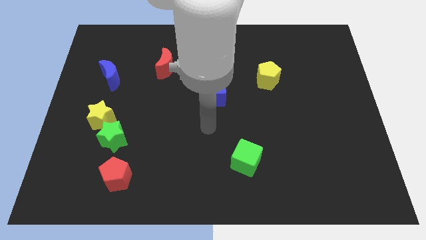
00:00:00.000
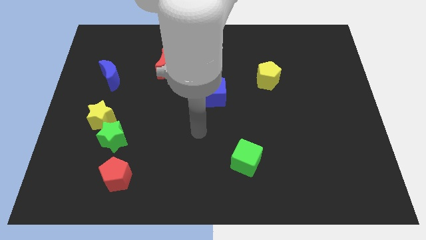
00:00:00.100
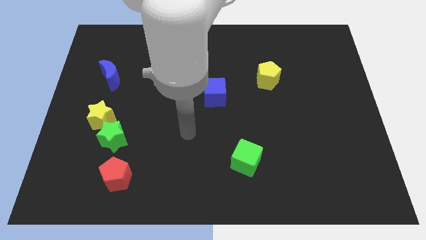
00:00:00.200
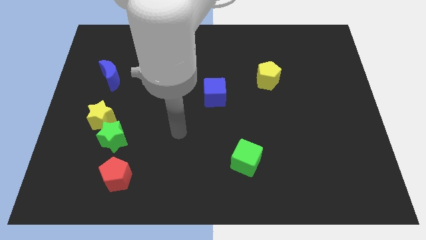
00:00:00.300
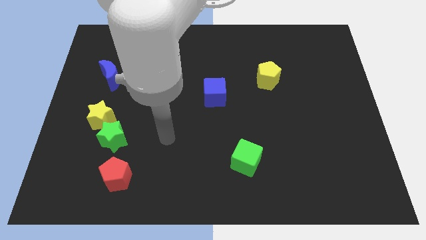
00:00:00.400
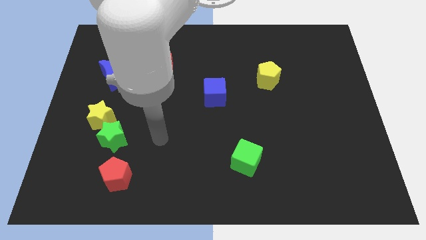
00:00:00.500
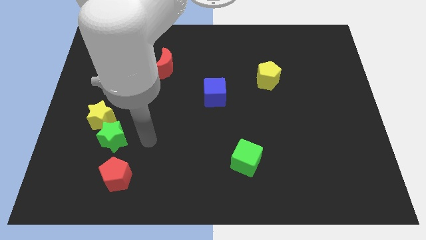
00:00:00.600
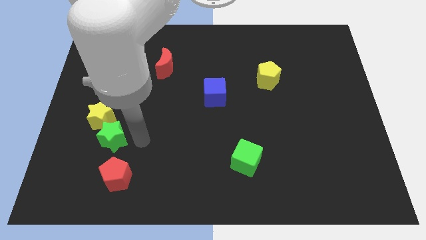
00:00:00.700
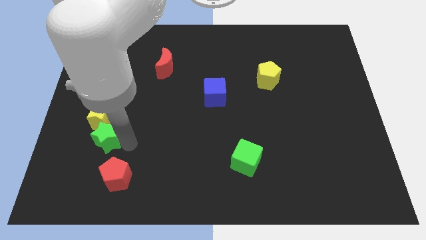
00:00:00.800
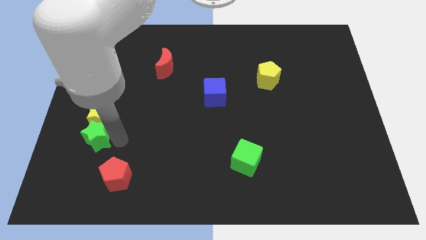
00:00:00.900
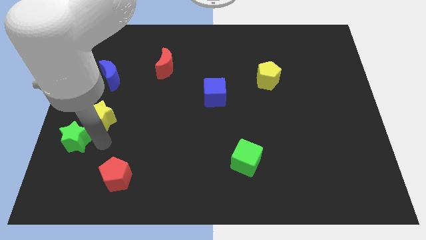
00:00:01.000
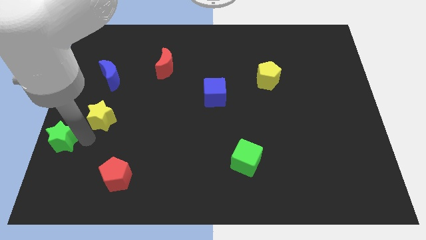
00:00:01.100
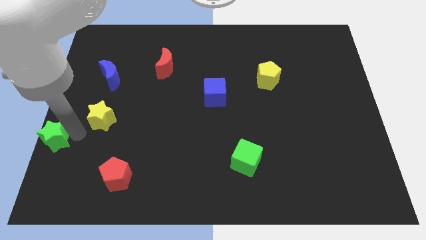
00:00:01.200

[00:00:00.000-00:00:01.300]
separate the yellow star from the green star

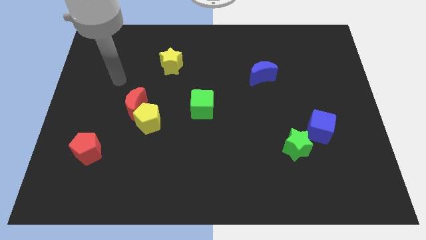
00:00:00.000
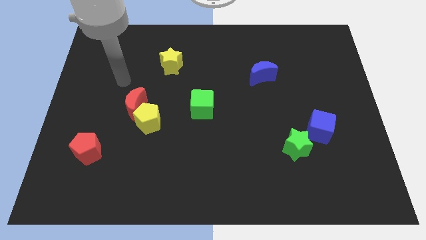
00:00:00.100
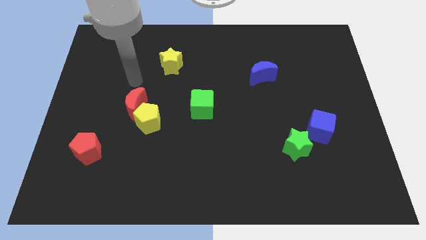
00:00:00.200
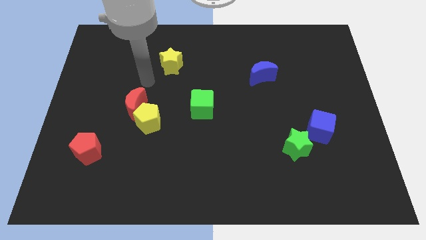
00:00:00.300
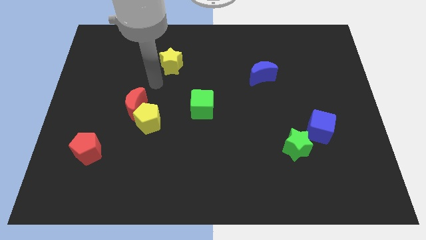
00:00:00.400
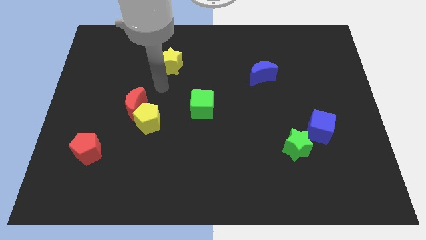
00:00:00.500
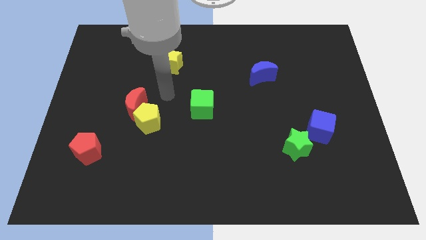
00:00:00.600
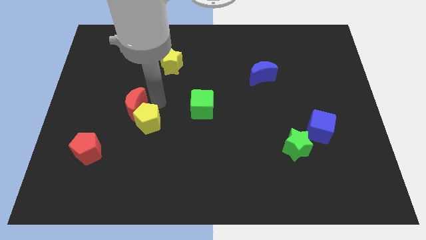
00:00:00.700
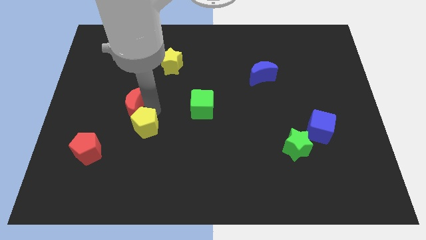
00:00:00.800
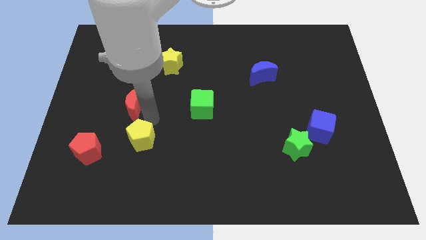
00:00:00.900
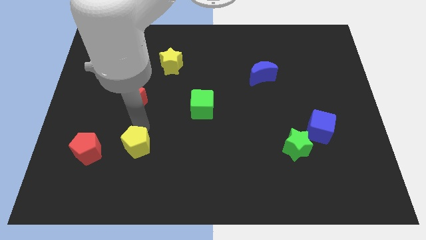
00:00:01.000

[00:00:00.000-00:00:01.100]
separate the red moon from the yellow pentagon

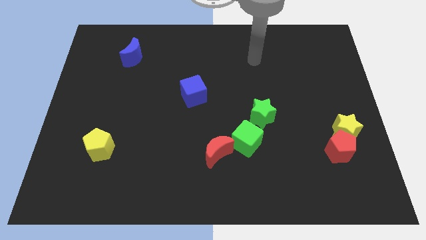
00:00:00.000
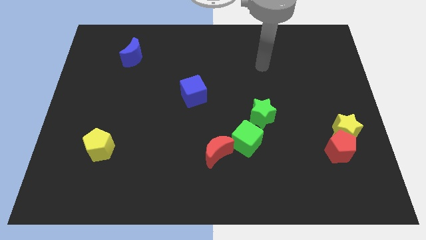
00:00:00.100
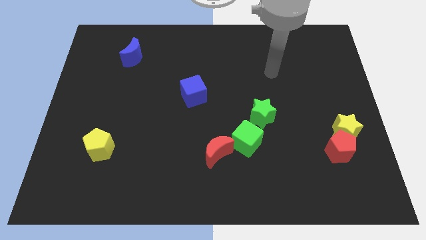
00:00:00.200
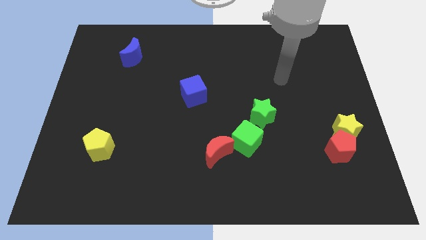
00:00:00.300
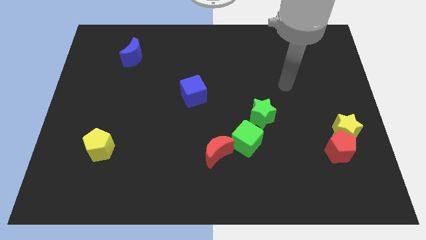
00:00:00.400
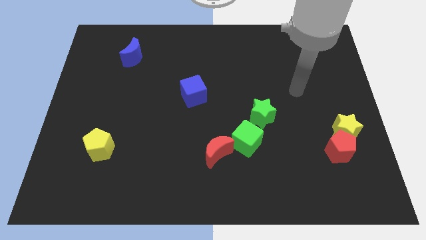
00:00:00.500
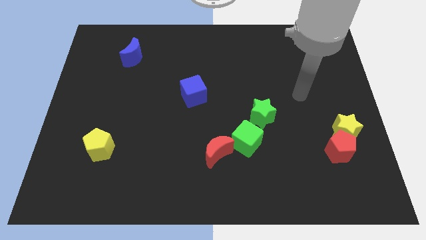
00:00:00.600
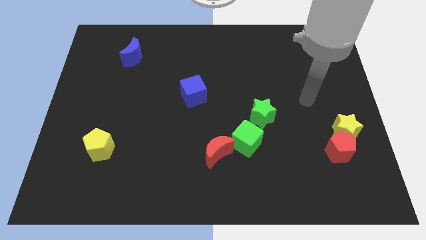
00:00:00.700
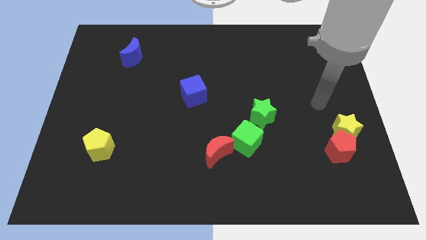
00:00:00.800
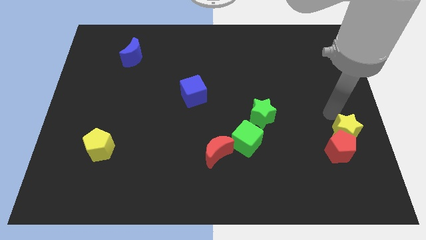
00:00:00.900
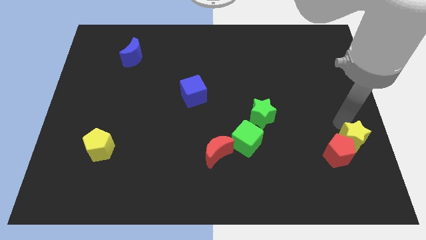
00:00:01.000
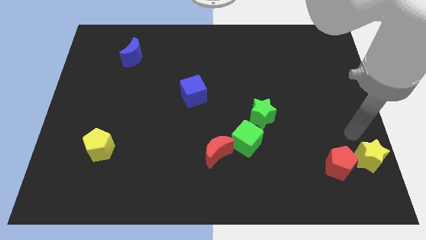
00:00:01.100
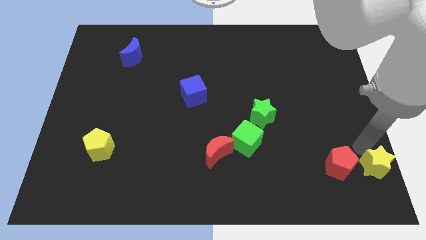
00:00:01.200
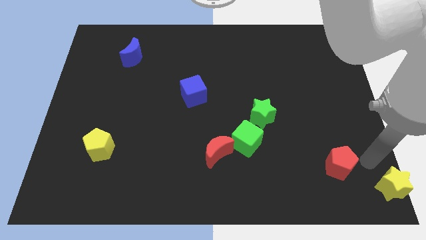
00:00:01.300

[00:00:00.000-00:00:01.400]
separate the red pentagon from the yellow star

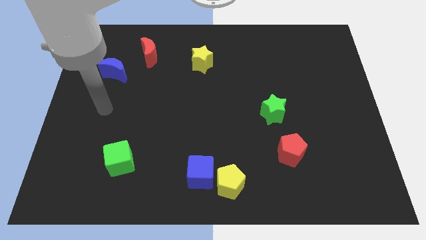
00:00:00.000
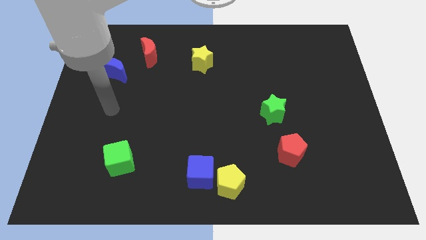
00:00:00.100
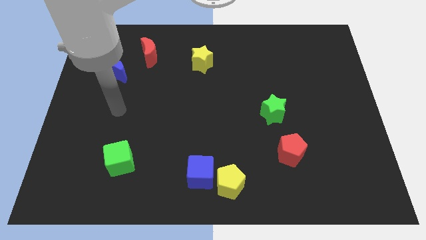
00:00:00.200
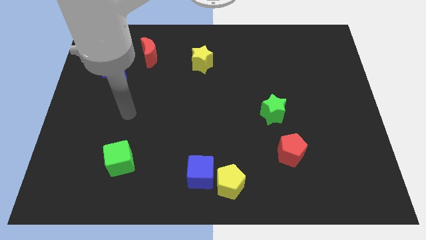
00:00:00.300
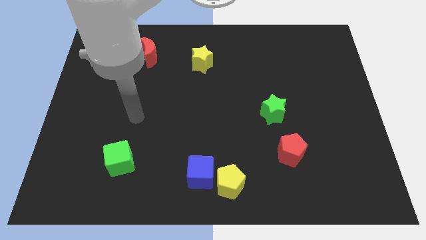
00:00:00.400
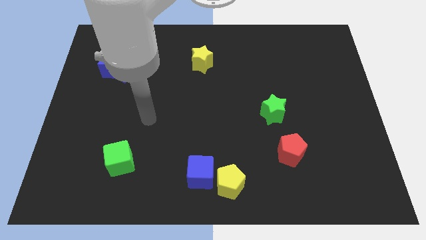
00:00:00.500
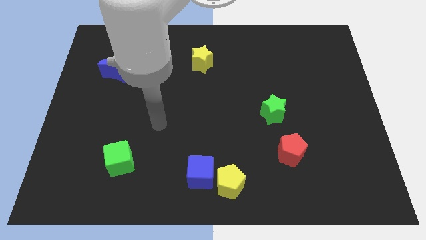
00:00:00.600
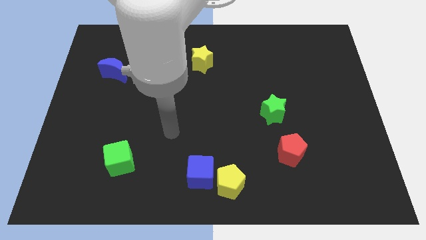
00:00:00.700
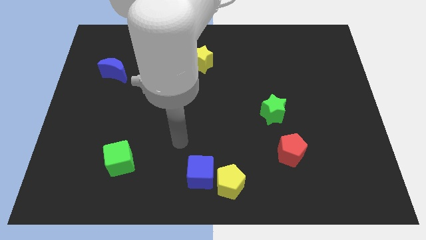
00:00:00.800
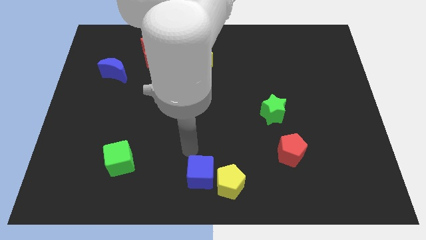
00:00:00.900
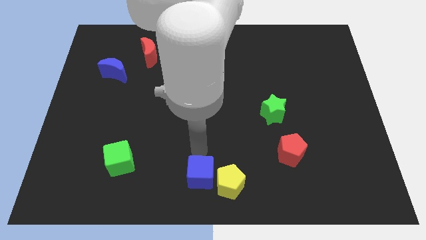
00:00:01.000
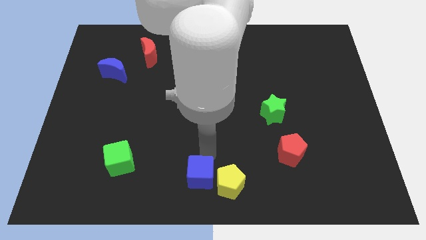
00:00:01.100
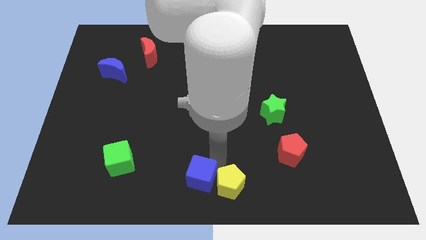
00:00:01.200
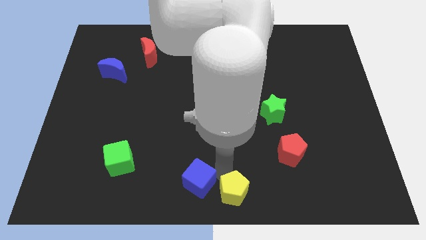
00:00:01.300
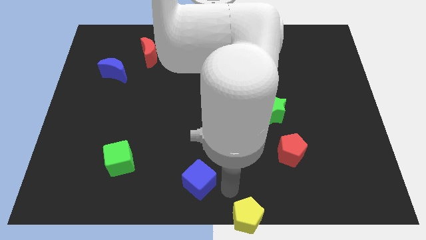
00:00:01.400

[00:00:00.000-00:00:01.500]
separate the blue cube from the yellow pentagon

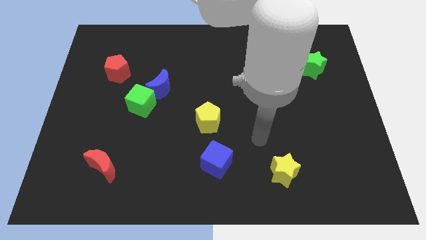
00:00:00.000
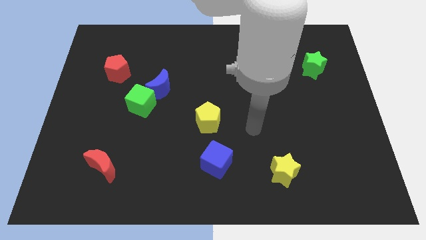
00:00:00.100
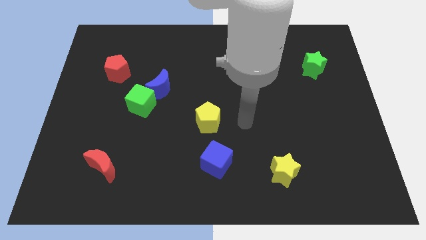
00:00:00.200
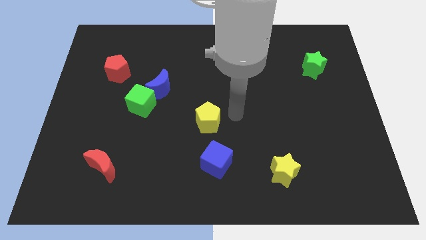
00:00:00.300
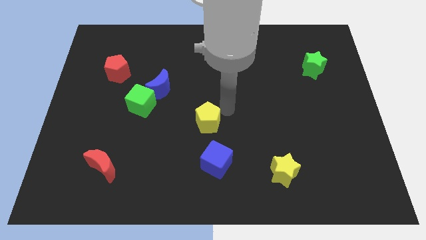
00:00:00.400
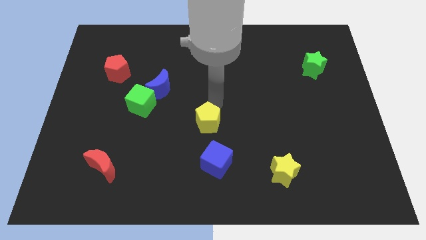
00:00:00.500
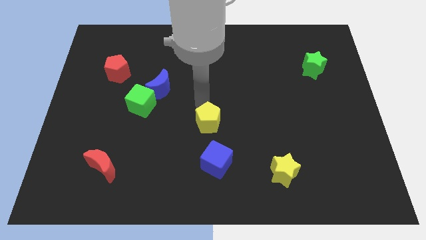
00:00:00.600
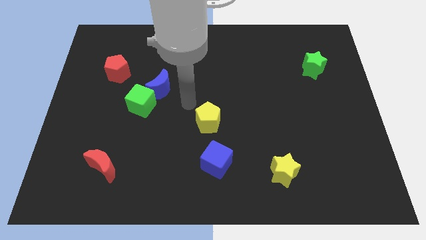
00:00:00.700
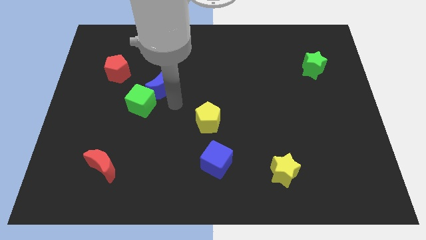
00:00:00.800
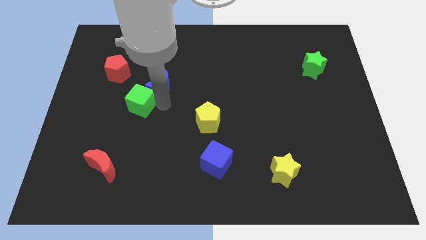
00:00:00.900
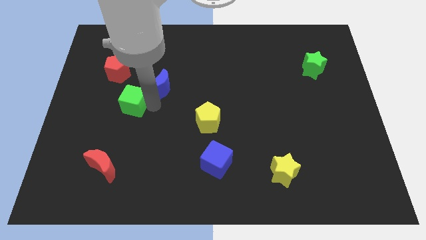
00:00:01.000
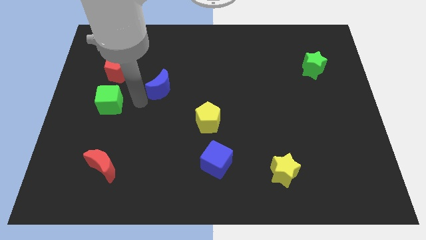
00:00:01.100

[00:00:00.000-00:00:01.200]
move the blue moon away from the green cube

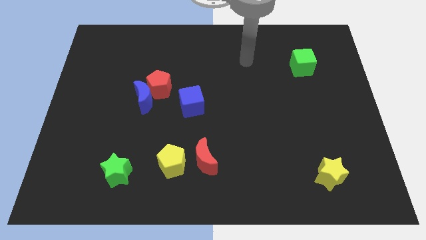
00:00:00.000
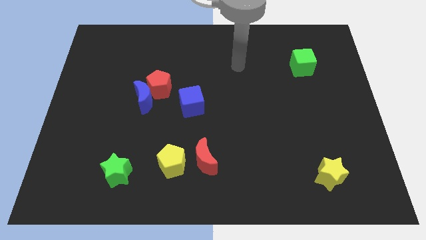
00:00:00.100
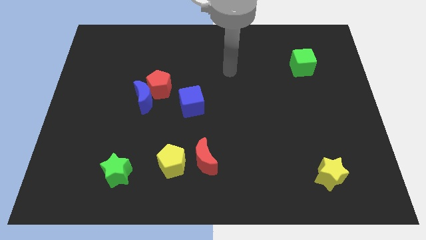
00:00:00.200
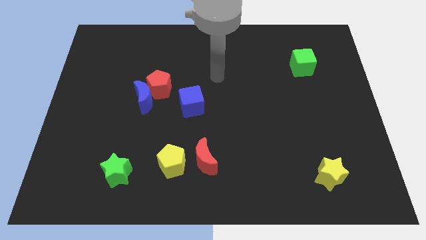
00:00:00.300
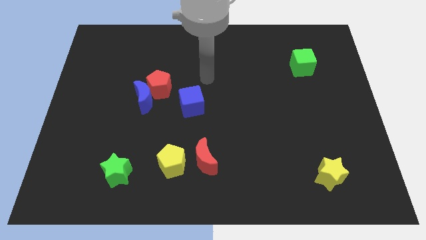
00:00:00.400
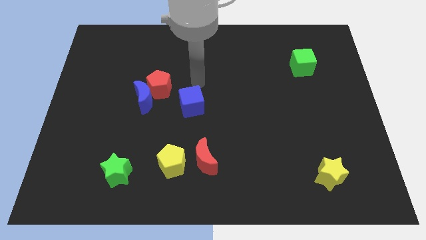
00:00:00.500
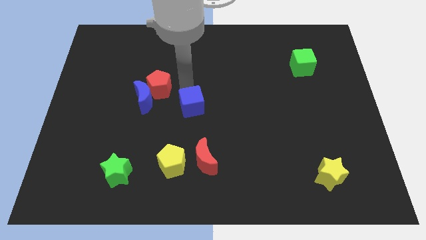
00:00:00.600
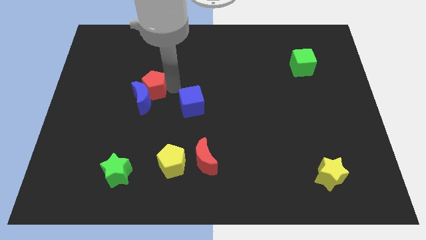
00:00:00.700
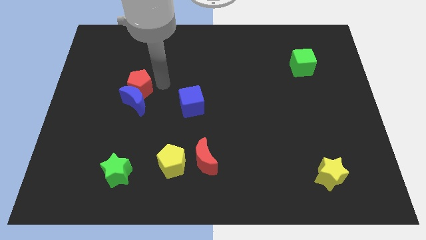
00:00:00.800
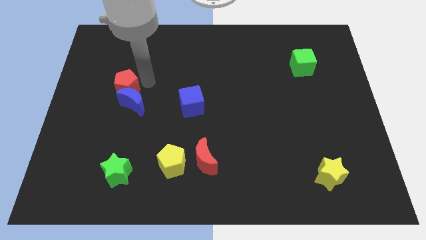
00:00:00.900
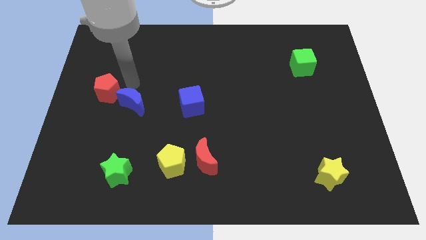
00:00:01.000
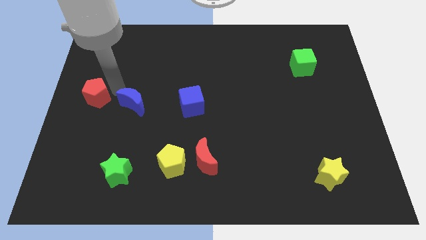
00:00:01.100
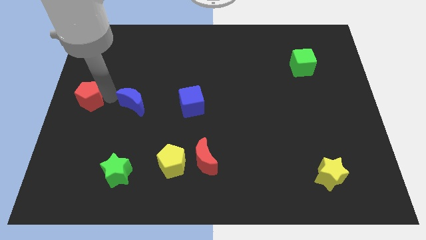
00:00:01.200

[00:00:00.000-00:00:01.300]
pull the blue moon apart from the red pentagon

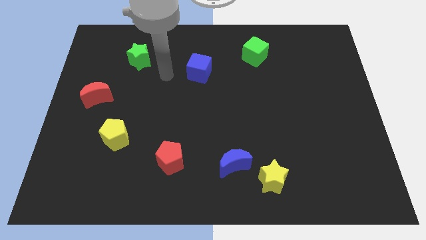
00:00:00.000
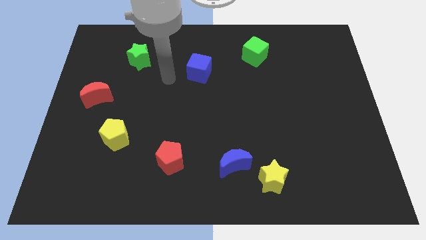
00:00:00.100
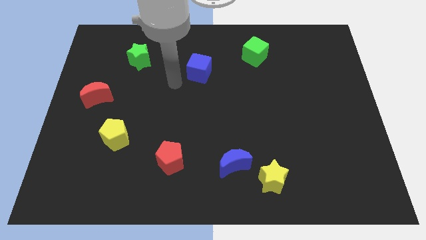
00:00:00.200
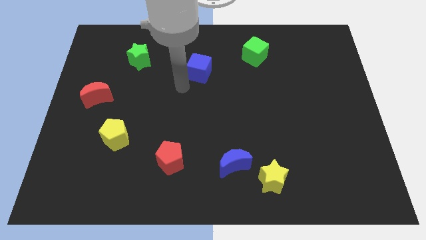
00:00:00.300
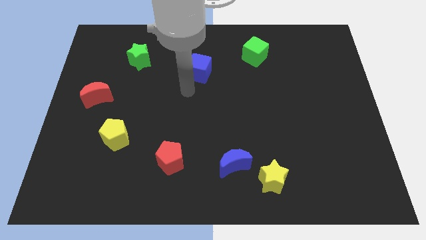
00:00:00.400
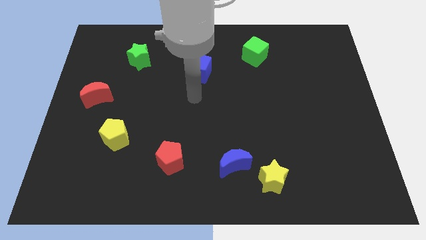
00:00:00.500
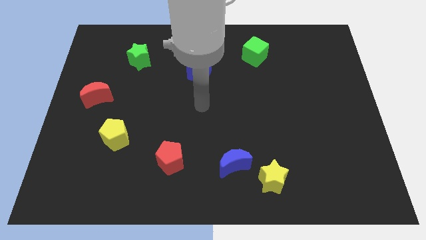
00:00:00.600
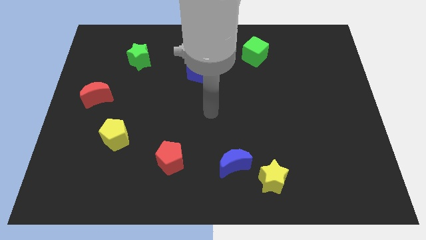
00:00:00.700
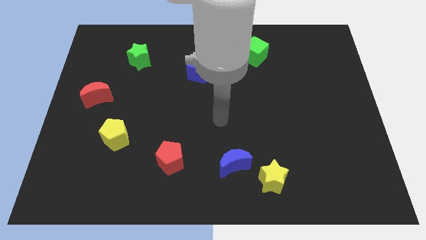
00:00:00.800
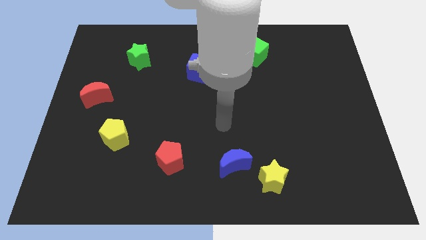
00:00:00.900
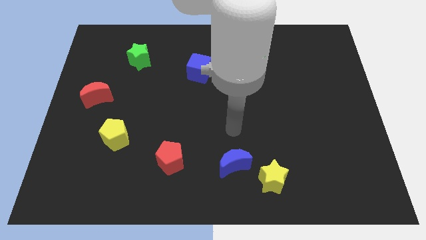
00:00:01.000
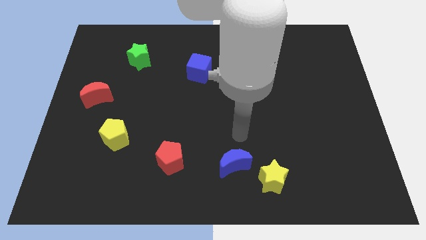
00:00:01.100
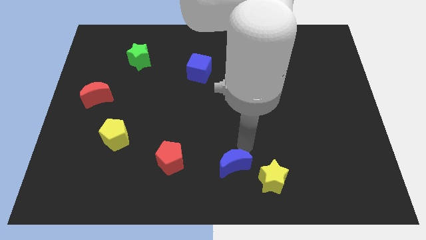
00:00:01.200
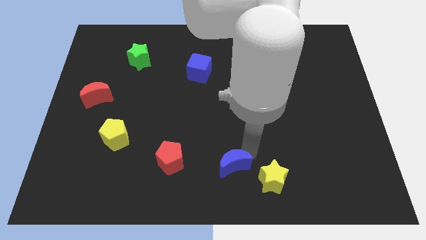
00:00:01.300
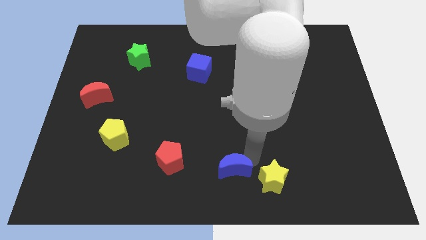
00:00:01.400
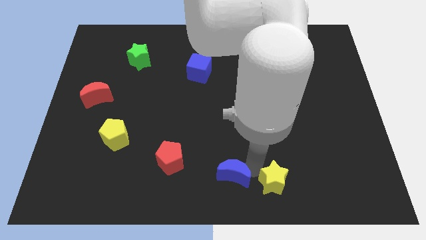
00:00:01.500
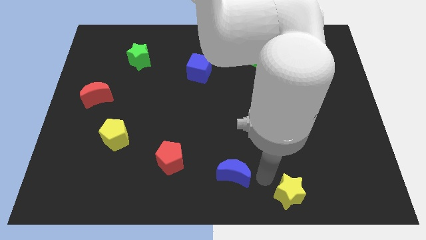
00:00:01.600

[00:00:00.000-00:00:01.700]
pull the blue moon apart from the yellow star

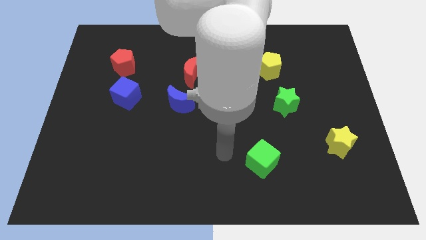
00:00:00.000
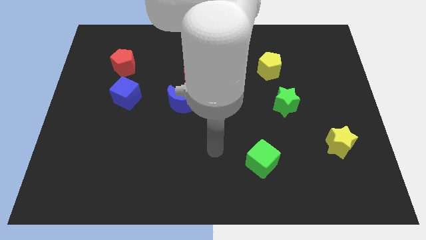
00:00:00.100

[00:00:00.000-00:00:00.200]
pull the red moon apart from the blue moon
